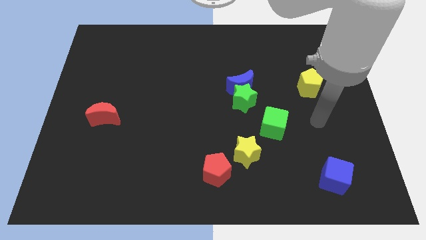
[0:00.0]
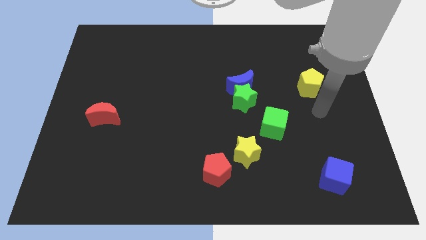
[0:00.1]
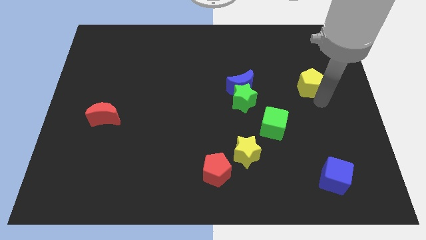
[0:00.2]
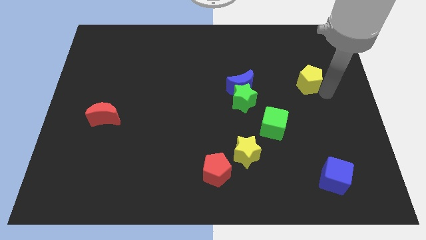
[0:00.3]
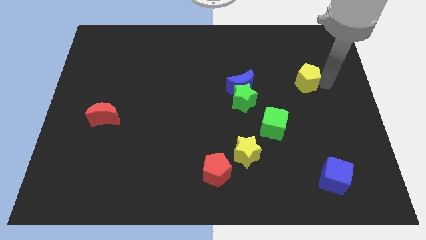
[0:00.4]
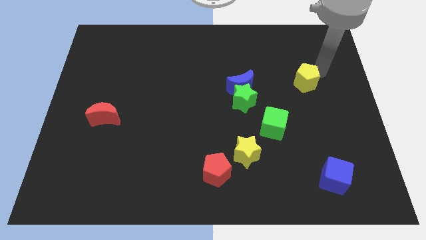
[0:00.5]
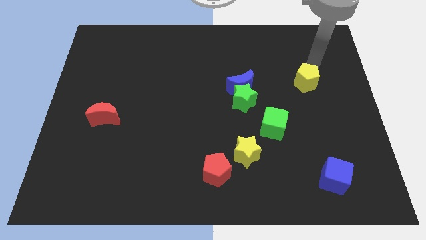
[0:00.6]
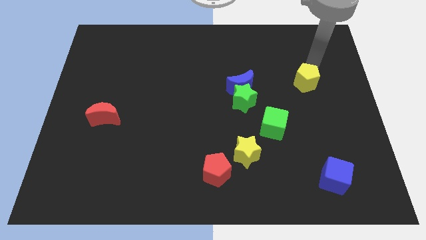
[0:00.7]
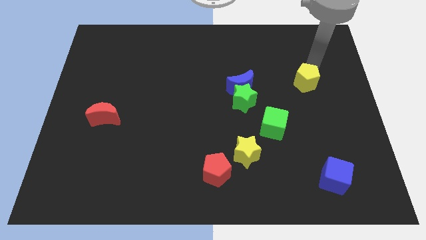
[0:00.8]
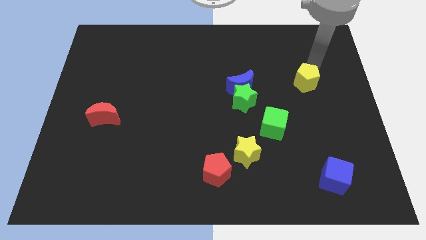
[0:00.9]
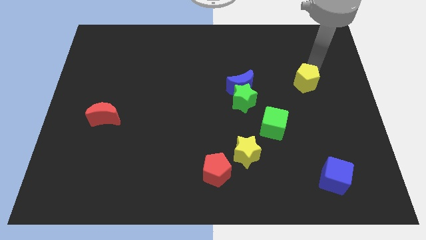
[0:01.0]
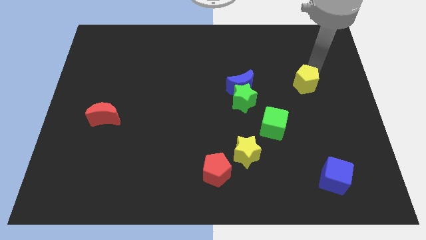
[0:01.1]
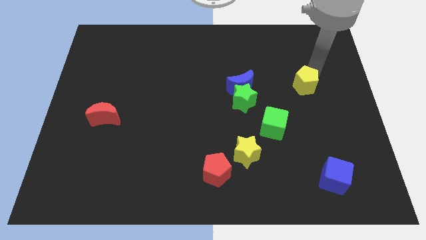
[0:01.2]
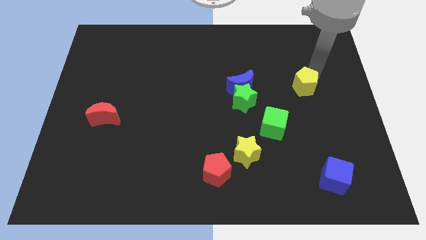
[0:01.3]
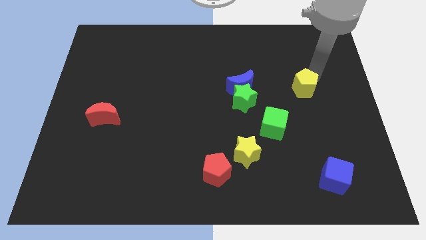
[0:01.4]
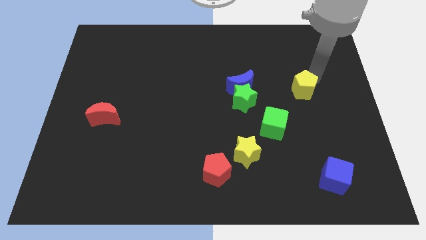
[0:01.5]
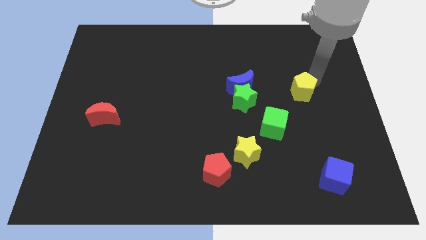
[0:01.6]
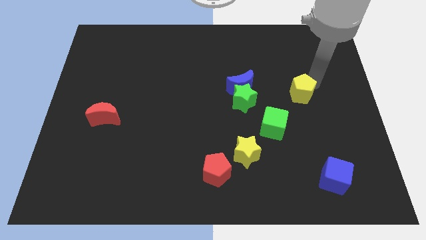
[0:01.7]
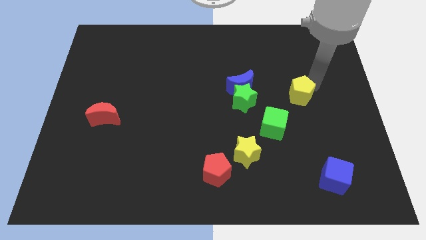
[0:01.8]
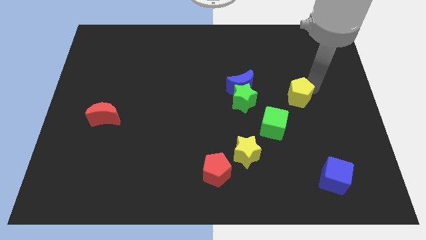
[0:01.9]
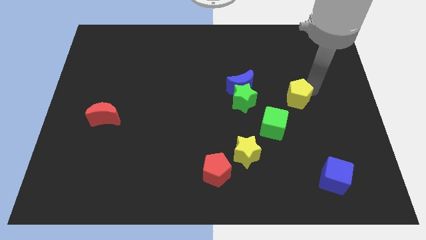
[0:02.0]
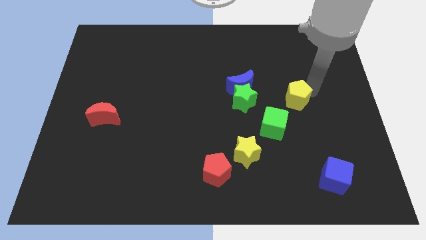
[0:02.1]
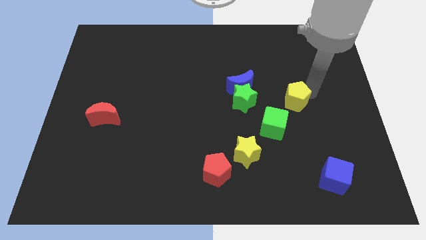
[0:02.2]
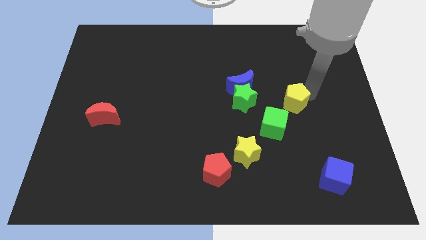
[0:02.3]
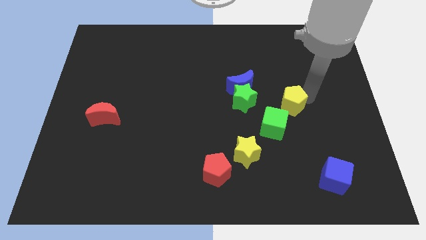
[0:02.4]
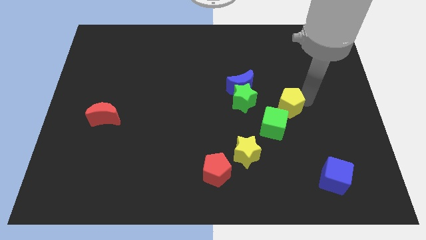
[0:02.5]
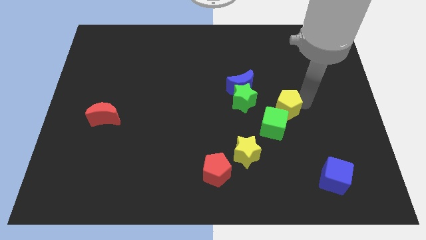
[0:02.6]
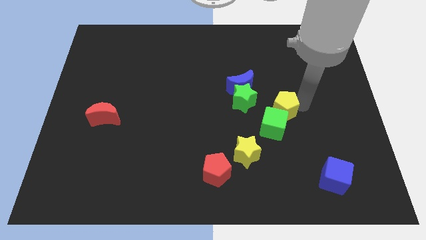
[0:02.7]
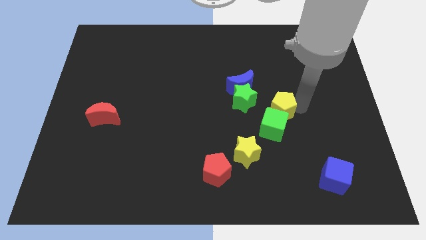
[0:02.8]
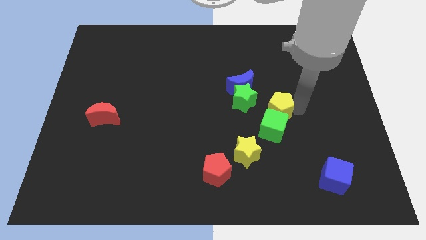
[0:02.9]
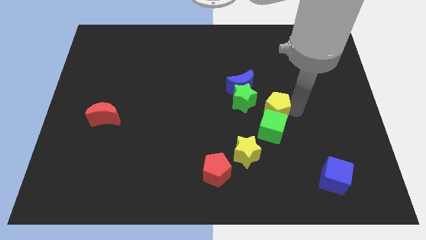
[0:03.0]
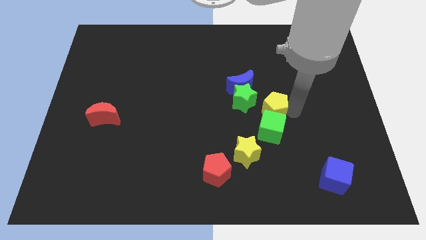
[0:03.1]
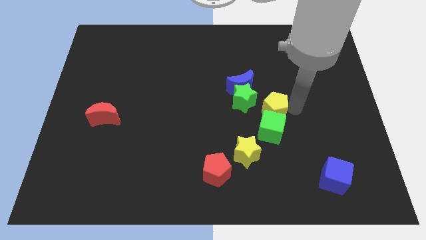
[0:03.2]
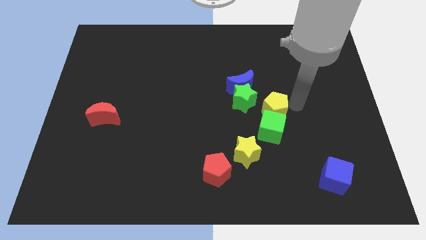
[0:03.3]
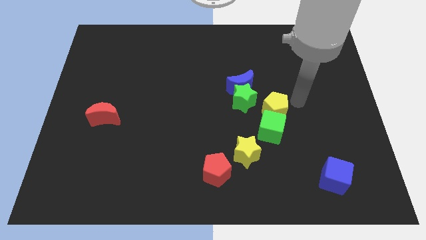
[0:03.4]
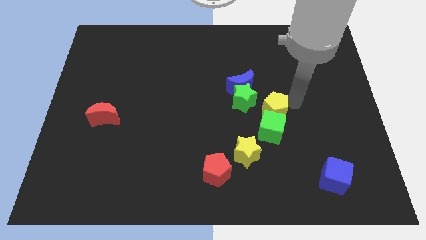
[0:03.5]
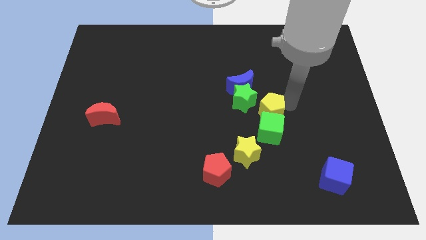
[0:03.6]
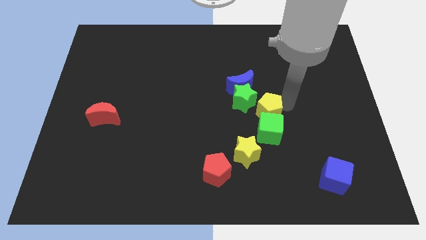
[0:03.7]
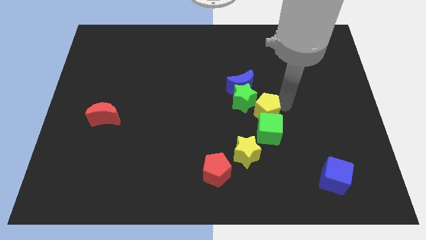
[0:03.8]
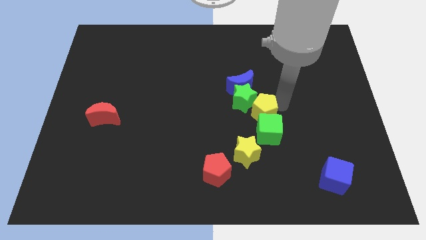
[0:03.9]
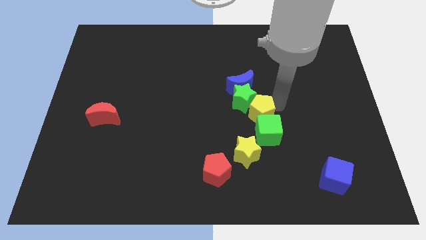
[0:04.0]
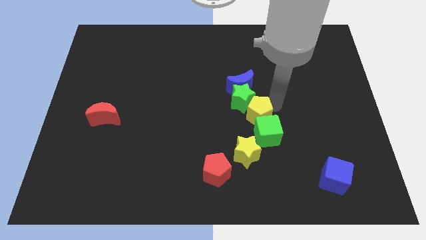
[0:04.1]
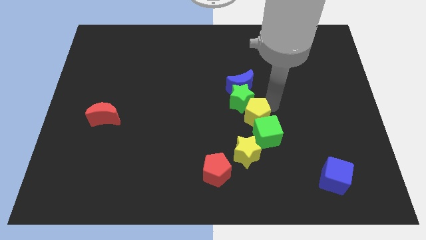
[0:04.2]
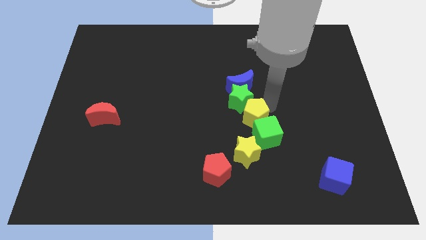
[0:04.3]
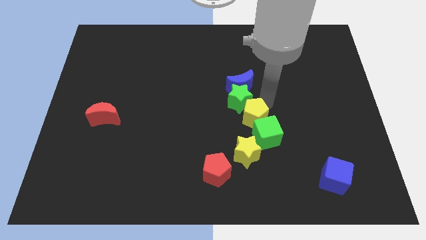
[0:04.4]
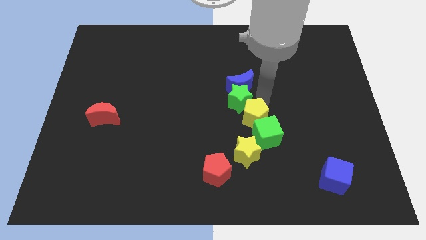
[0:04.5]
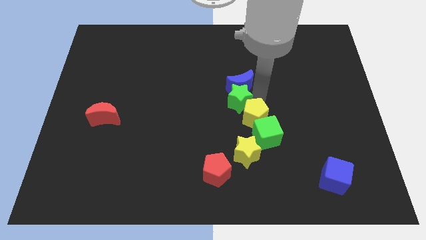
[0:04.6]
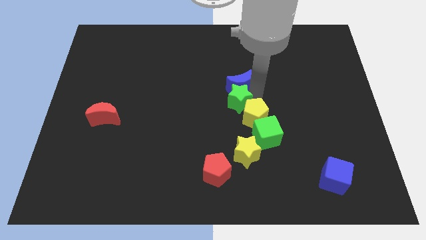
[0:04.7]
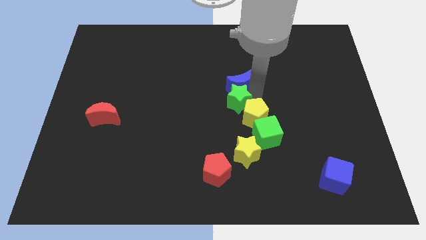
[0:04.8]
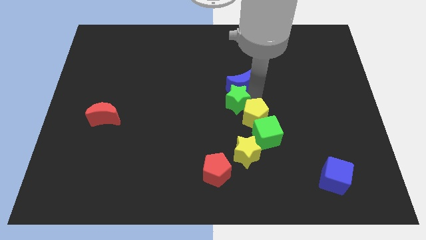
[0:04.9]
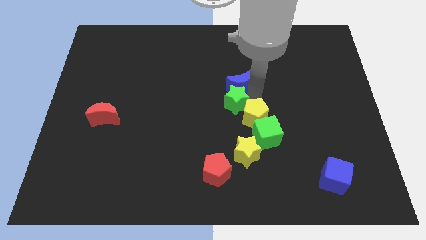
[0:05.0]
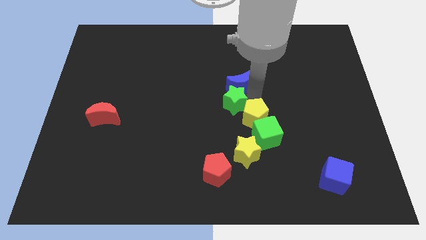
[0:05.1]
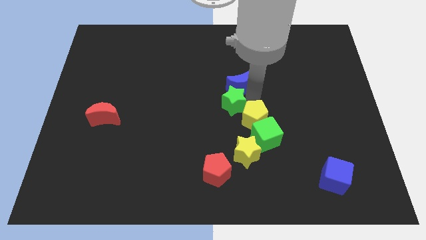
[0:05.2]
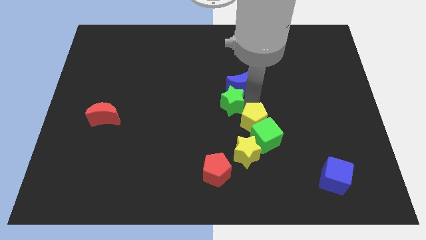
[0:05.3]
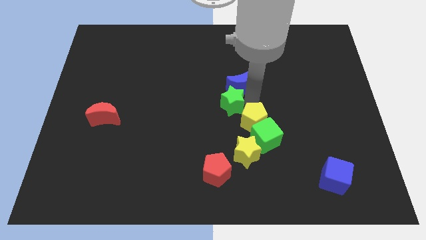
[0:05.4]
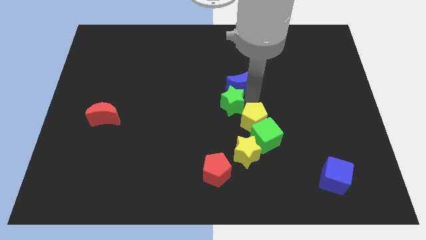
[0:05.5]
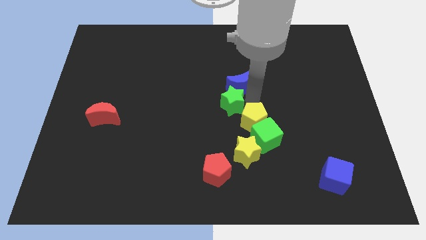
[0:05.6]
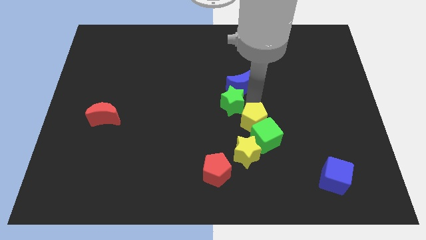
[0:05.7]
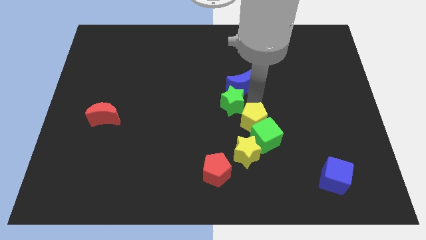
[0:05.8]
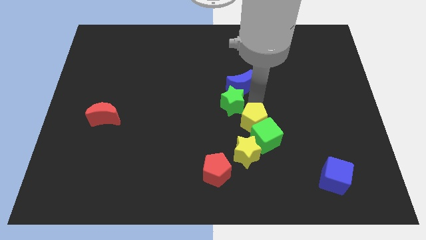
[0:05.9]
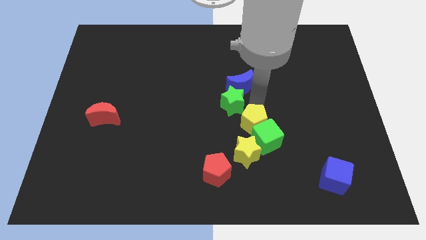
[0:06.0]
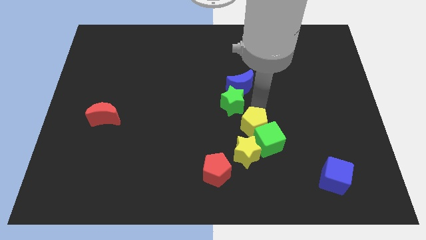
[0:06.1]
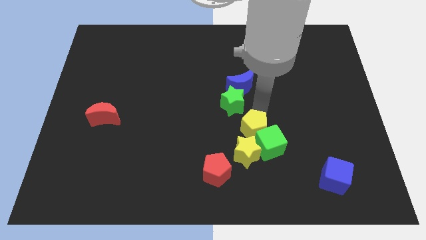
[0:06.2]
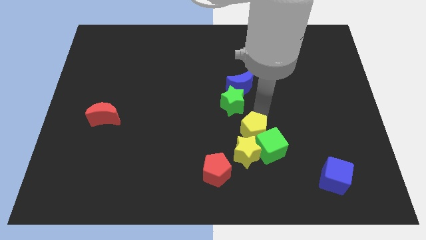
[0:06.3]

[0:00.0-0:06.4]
push the yellow pentagon close to the yellow star

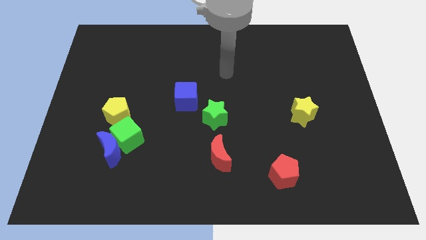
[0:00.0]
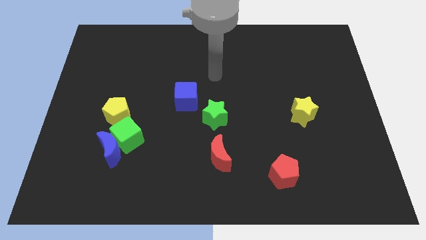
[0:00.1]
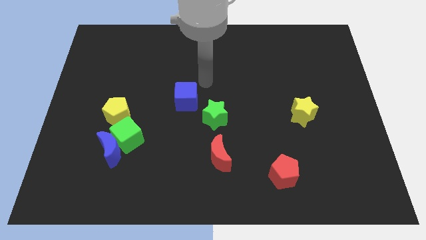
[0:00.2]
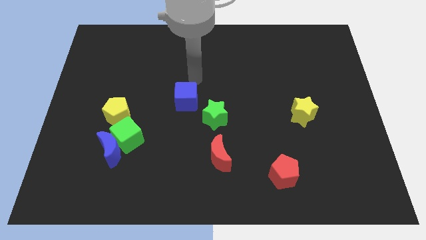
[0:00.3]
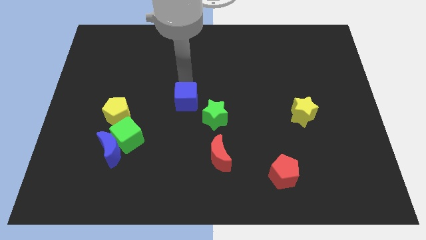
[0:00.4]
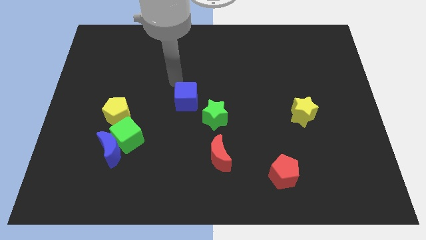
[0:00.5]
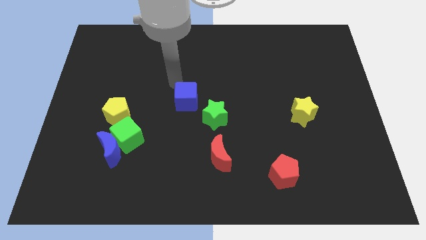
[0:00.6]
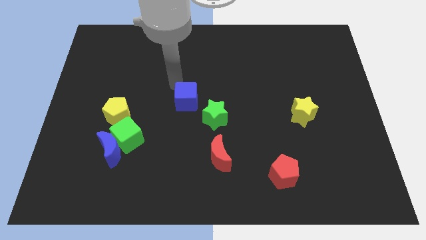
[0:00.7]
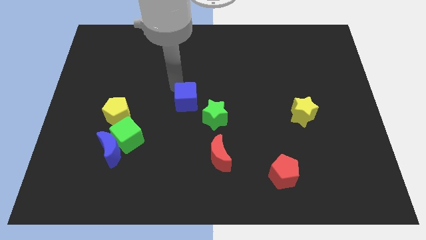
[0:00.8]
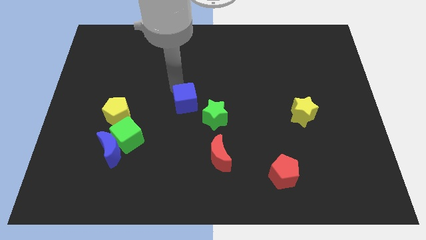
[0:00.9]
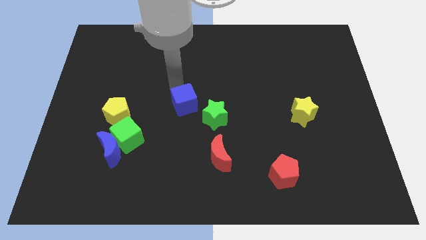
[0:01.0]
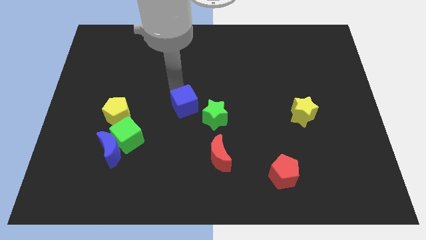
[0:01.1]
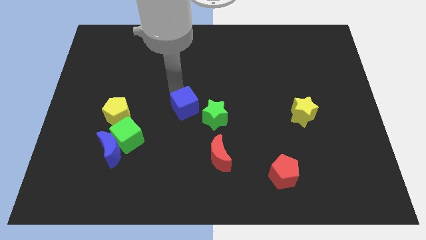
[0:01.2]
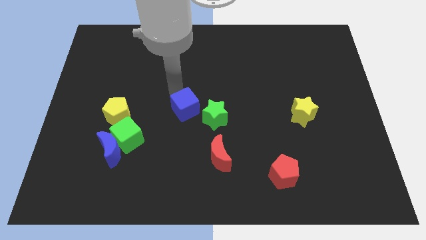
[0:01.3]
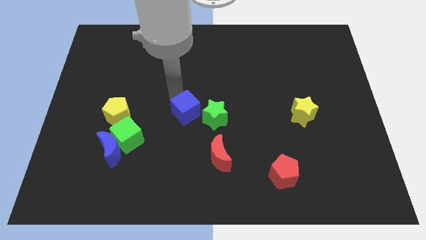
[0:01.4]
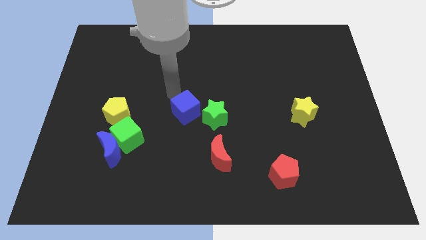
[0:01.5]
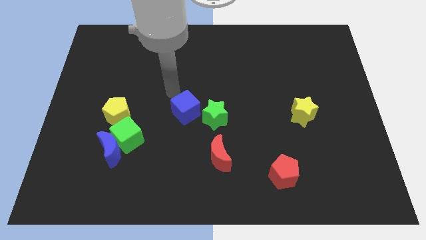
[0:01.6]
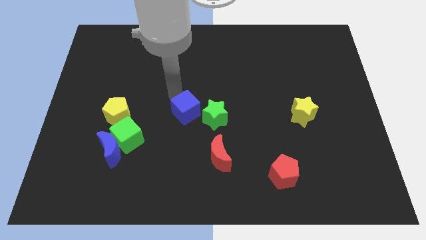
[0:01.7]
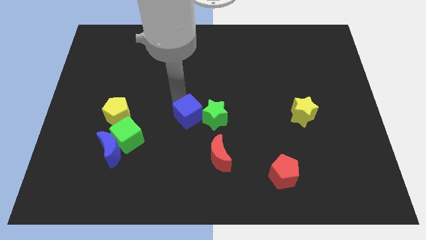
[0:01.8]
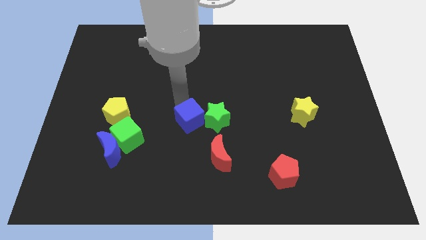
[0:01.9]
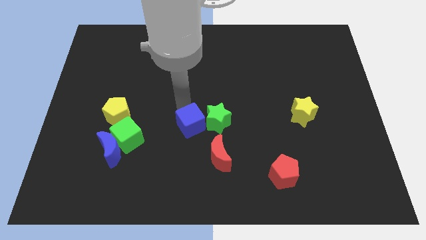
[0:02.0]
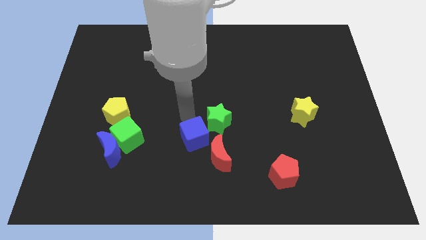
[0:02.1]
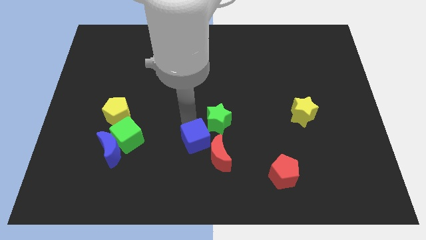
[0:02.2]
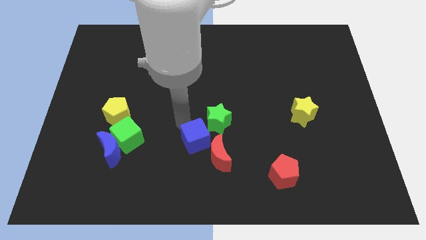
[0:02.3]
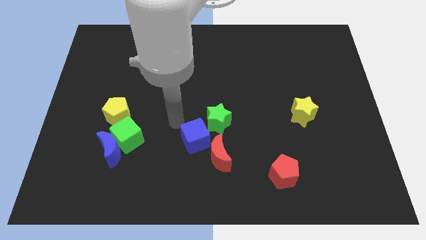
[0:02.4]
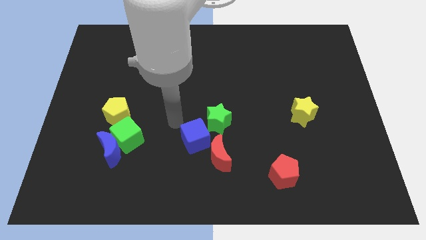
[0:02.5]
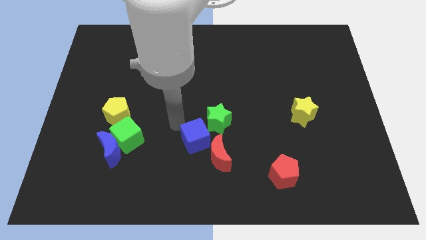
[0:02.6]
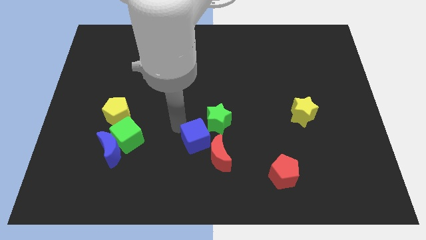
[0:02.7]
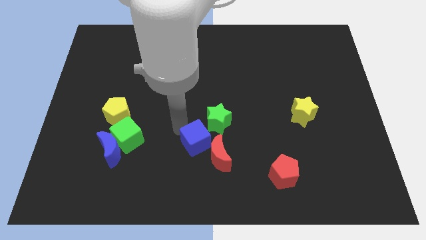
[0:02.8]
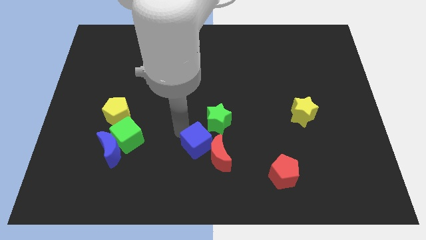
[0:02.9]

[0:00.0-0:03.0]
slide the blue cube next to the red moon
